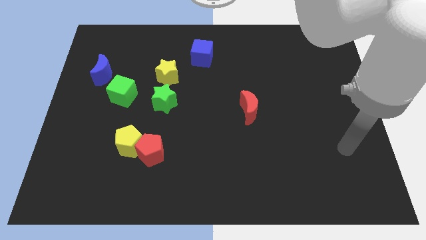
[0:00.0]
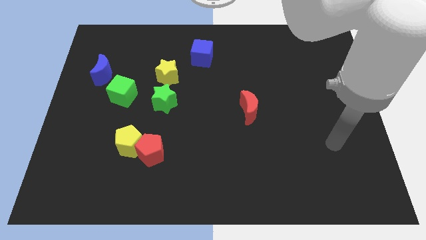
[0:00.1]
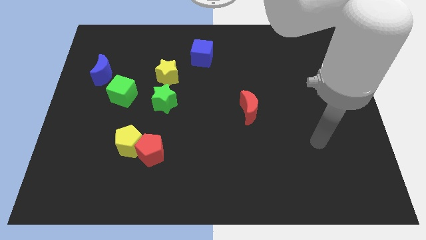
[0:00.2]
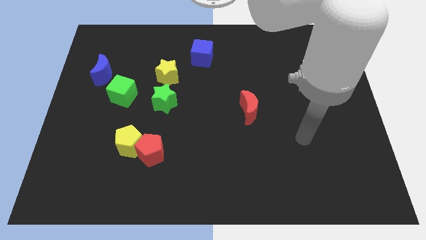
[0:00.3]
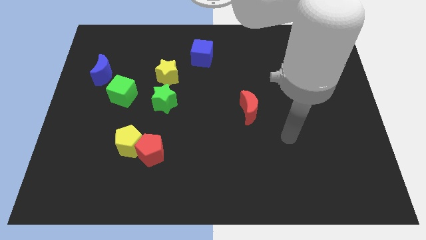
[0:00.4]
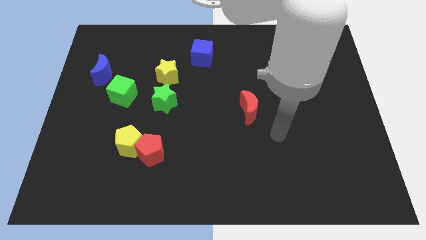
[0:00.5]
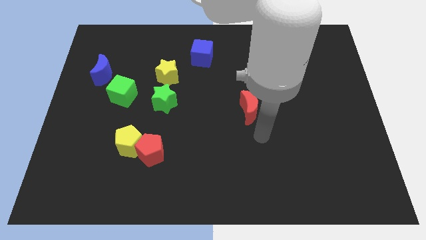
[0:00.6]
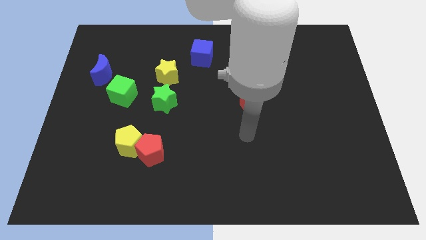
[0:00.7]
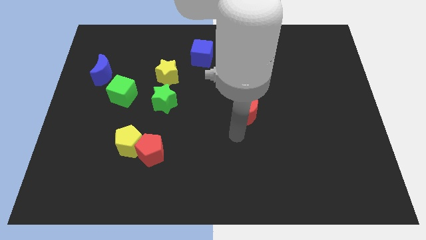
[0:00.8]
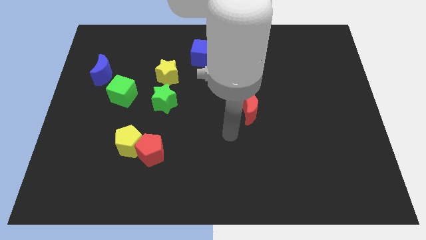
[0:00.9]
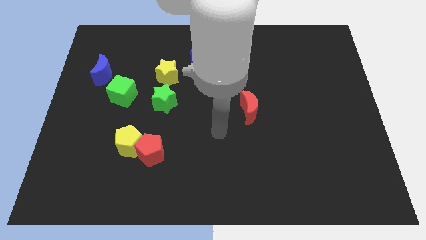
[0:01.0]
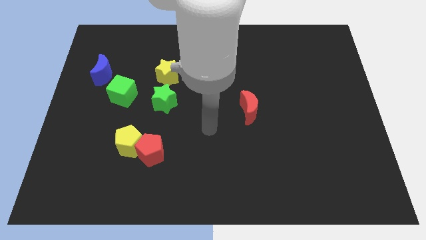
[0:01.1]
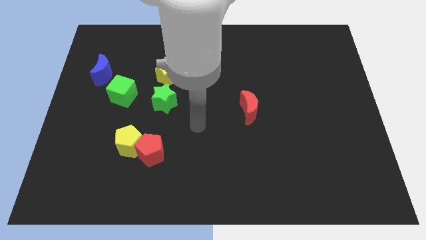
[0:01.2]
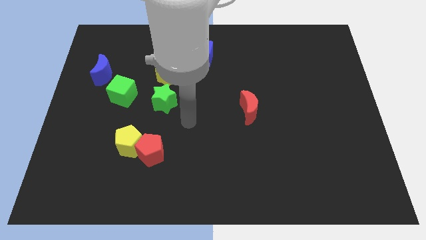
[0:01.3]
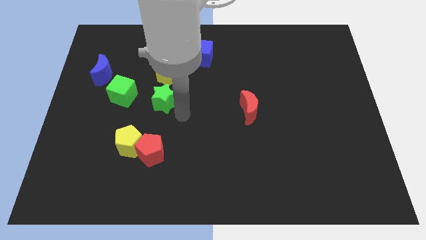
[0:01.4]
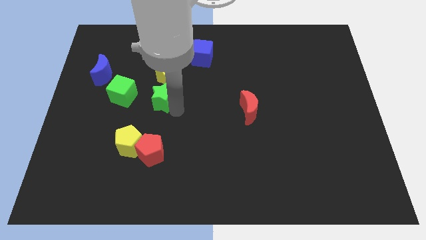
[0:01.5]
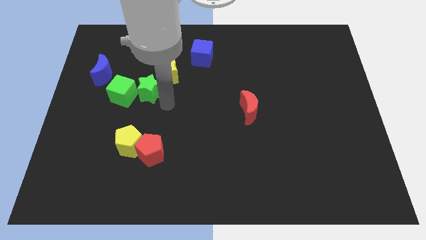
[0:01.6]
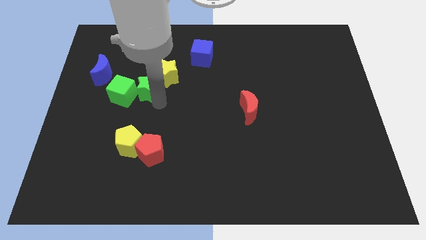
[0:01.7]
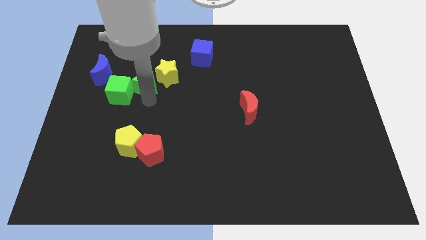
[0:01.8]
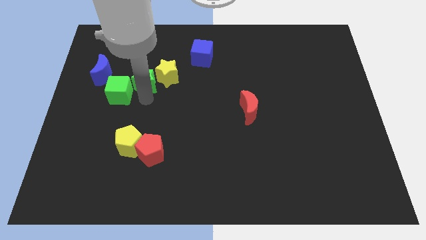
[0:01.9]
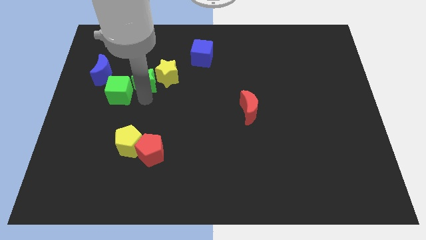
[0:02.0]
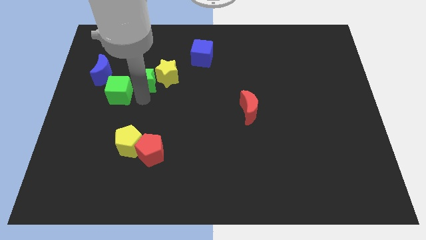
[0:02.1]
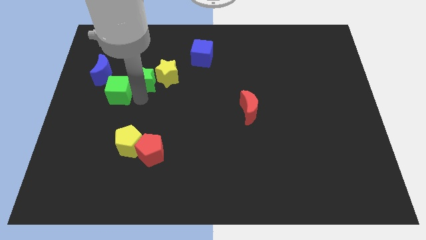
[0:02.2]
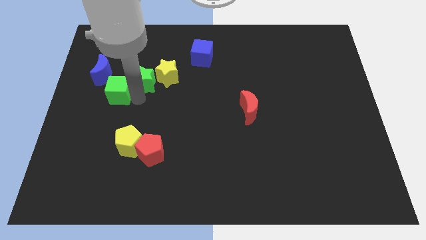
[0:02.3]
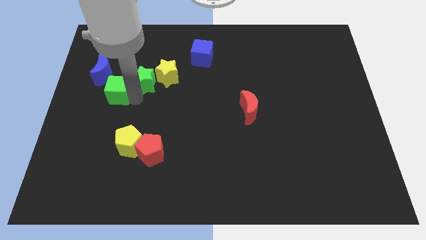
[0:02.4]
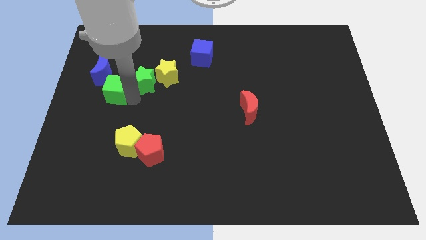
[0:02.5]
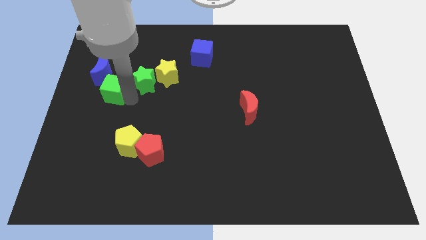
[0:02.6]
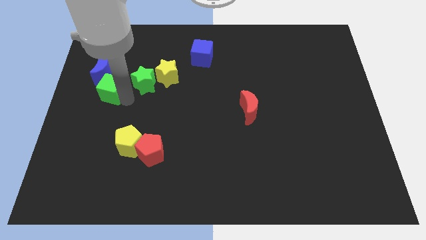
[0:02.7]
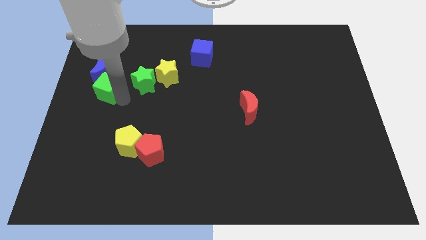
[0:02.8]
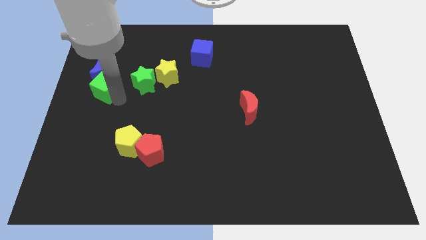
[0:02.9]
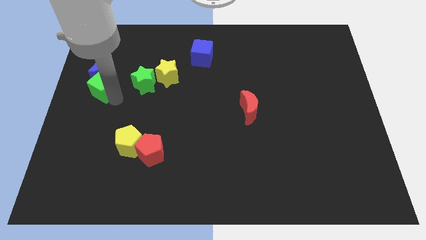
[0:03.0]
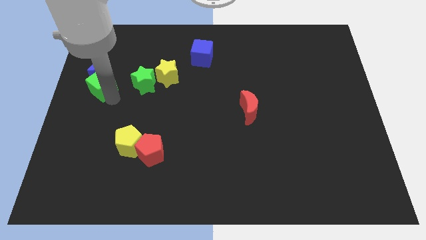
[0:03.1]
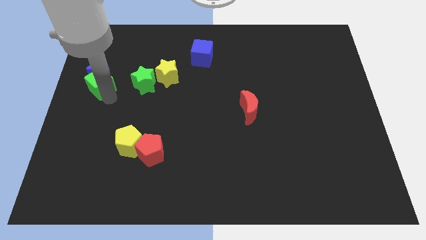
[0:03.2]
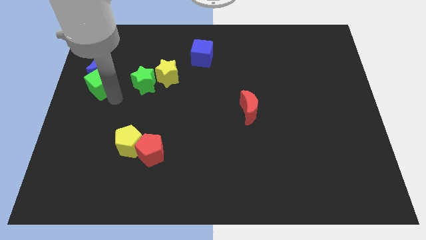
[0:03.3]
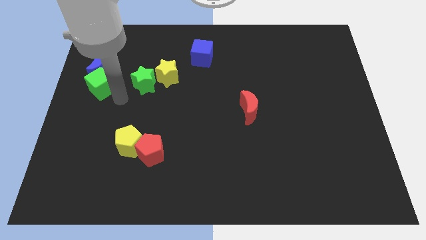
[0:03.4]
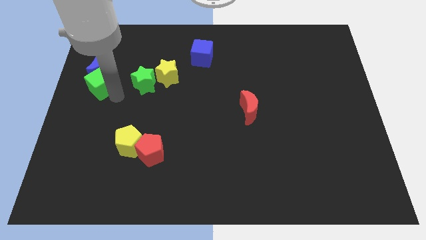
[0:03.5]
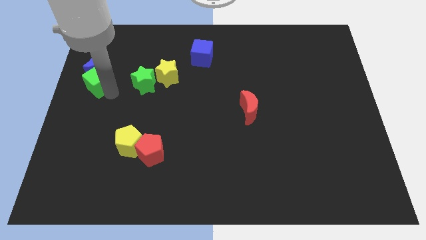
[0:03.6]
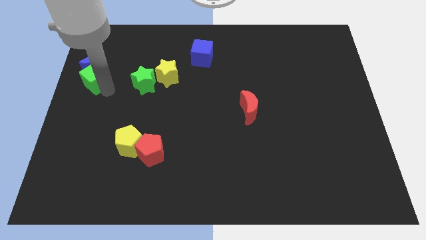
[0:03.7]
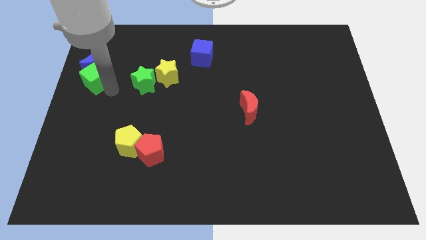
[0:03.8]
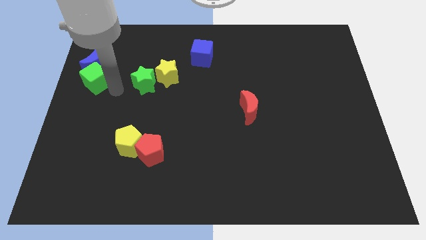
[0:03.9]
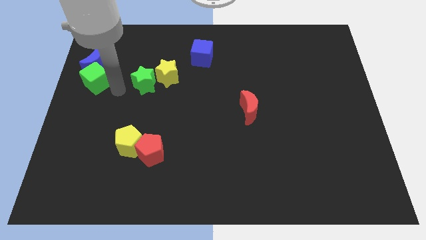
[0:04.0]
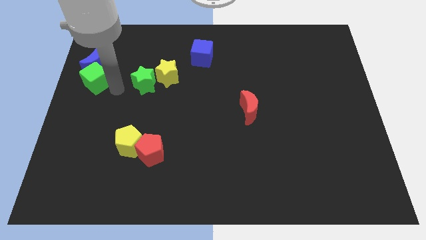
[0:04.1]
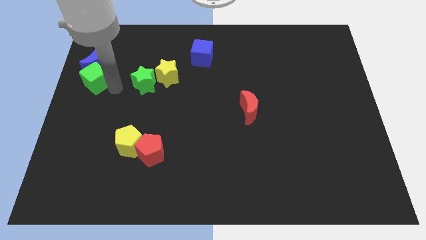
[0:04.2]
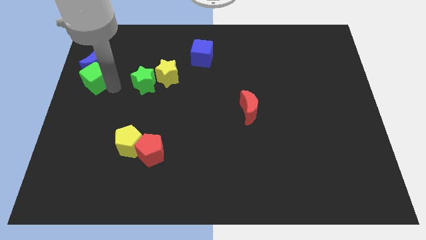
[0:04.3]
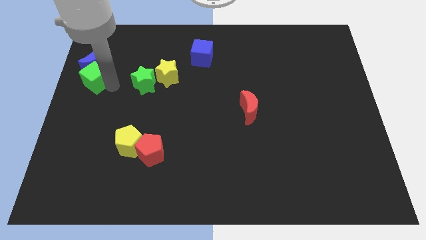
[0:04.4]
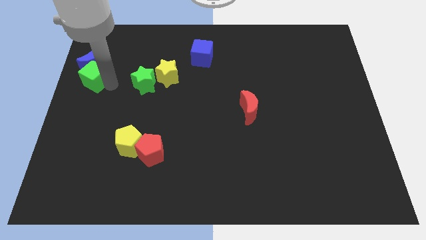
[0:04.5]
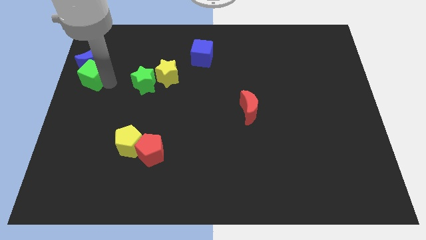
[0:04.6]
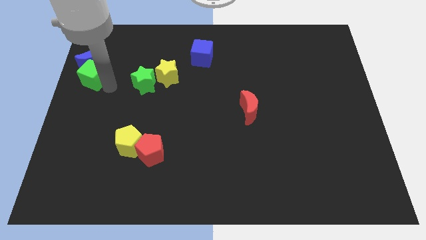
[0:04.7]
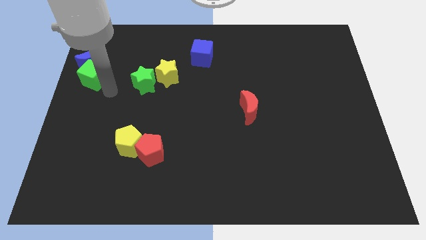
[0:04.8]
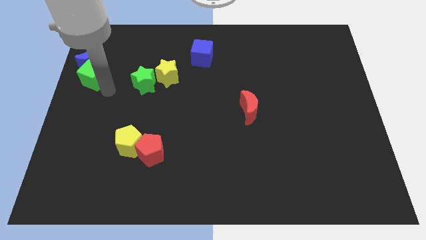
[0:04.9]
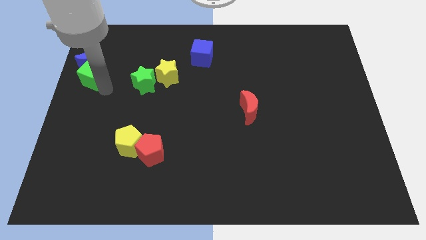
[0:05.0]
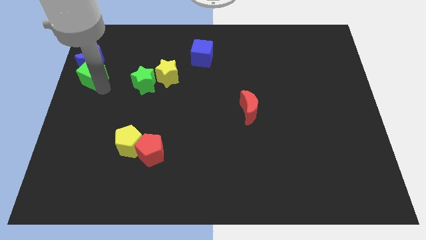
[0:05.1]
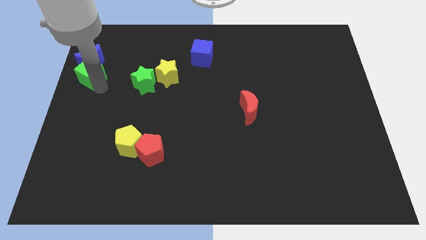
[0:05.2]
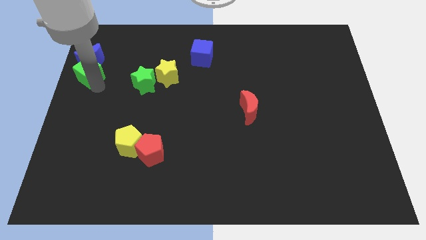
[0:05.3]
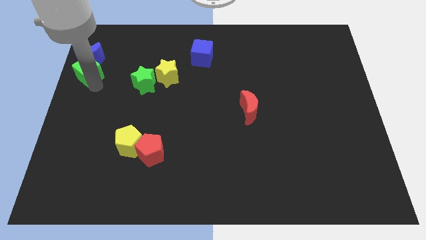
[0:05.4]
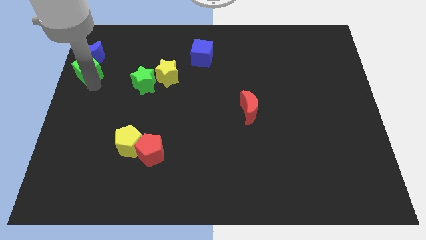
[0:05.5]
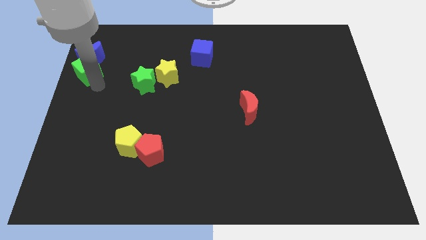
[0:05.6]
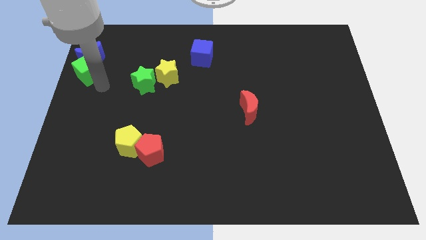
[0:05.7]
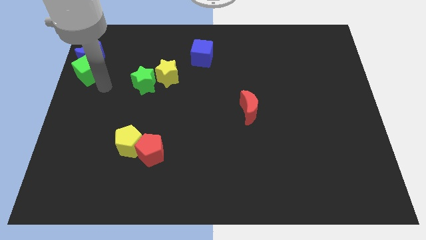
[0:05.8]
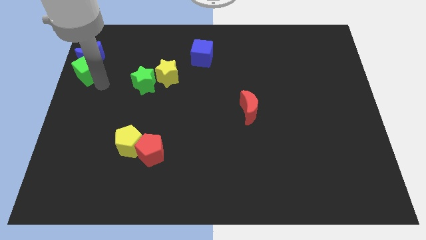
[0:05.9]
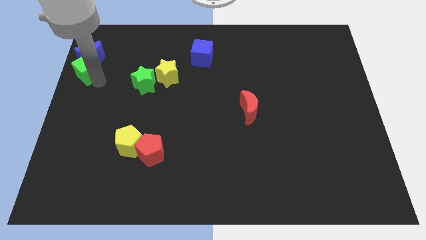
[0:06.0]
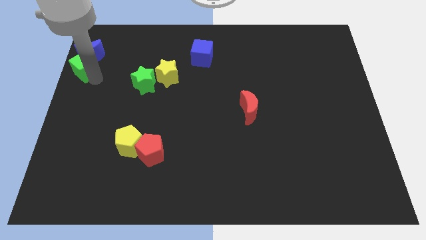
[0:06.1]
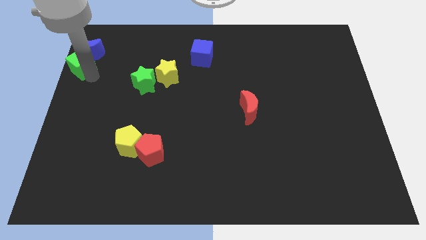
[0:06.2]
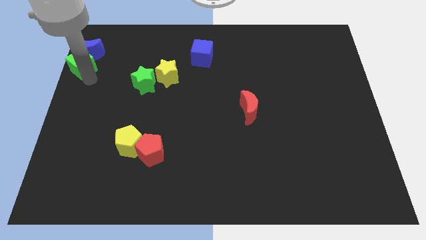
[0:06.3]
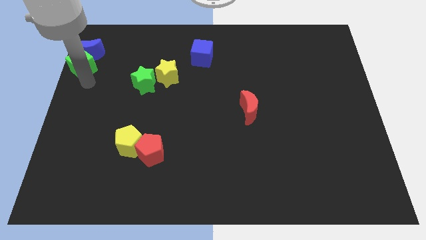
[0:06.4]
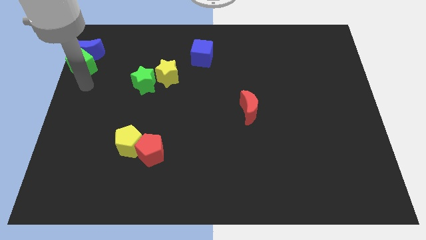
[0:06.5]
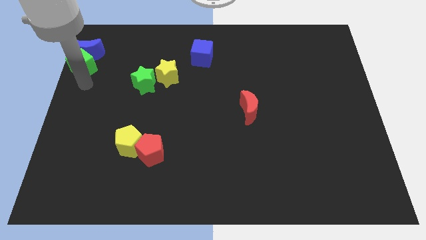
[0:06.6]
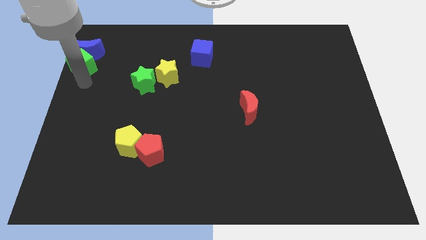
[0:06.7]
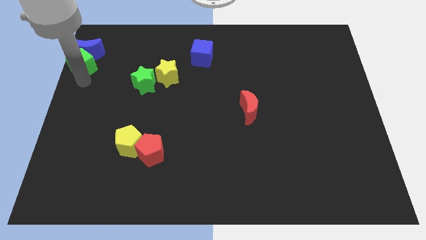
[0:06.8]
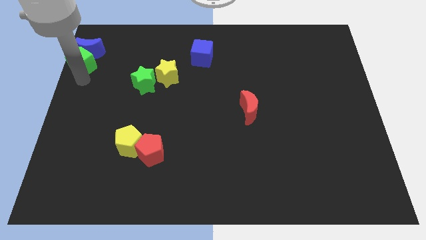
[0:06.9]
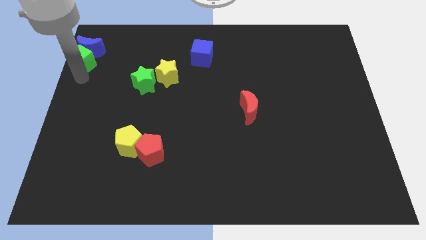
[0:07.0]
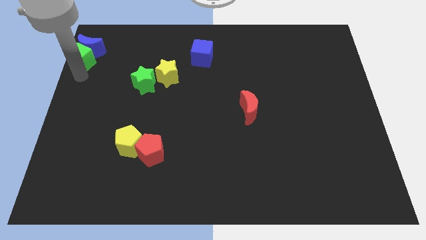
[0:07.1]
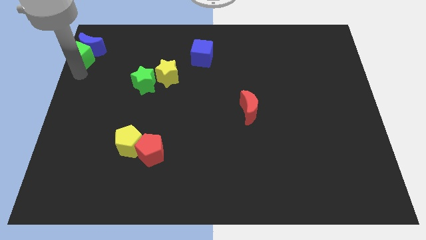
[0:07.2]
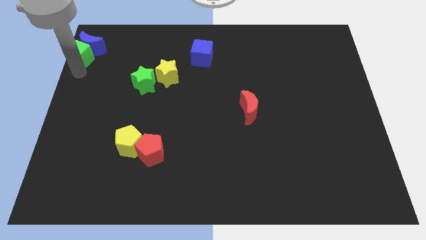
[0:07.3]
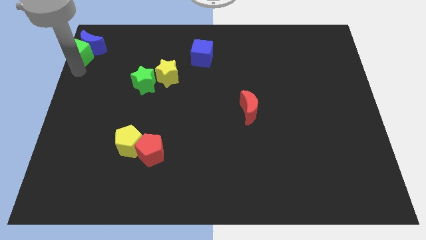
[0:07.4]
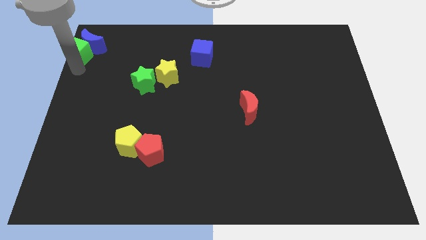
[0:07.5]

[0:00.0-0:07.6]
put the green cube to the upper left corner
